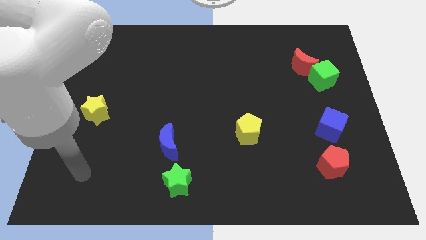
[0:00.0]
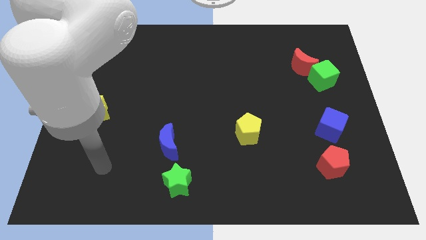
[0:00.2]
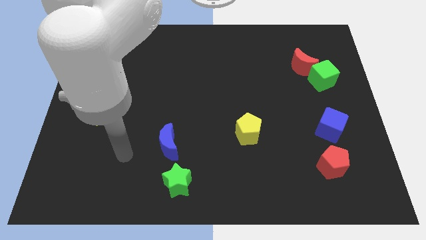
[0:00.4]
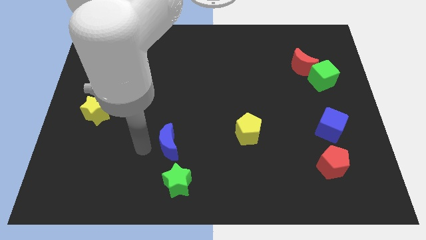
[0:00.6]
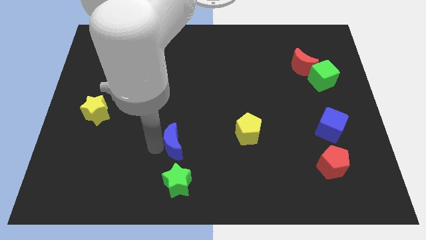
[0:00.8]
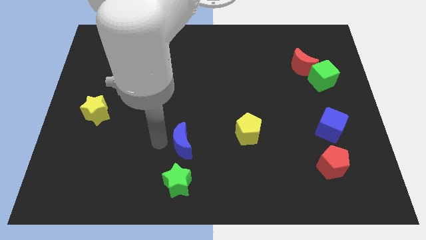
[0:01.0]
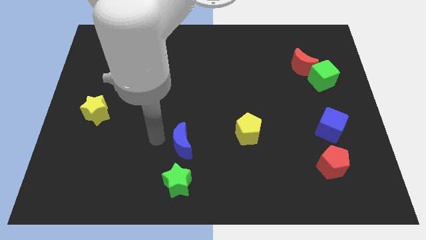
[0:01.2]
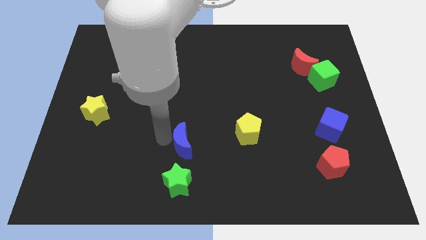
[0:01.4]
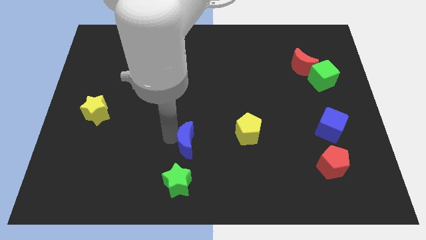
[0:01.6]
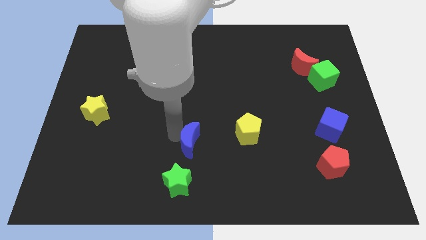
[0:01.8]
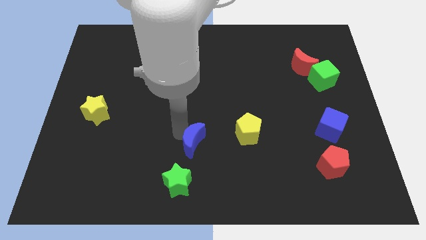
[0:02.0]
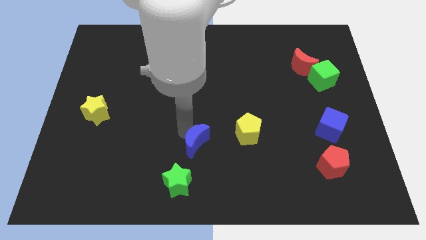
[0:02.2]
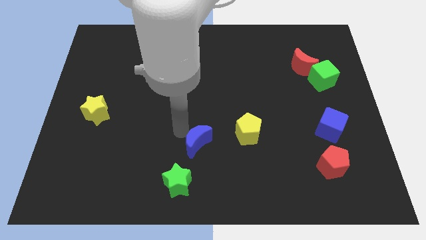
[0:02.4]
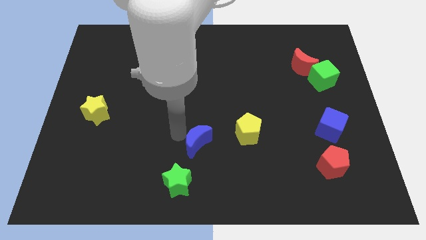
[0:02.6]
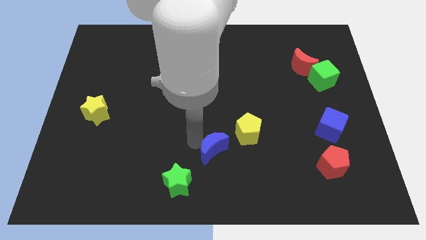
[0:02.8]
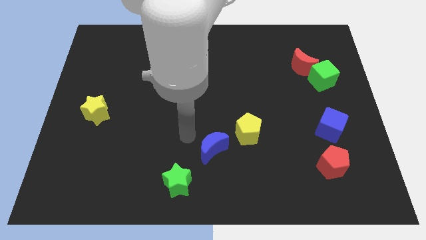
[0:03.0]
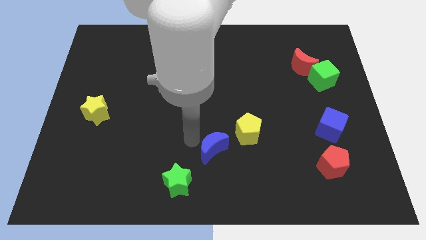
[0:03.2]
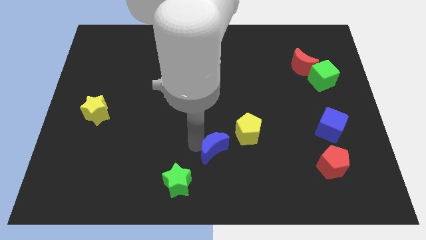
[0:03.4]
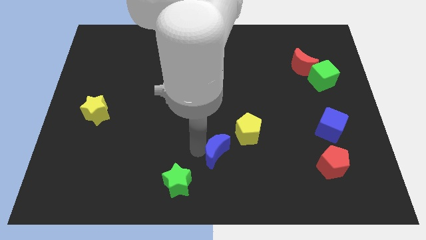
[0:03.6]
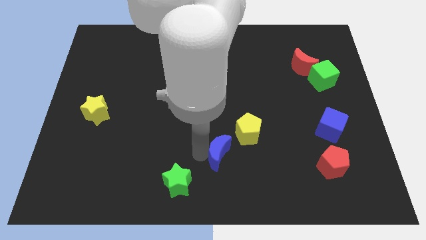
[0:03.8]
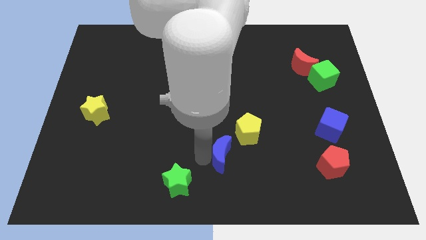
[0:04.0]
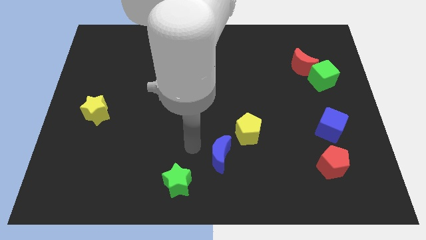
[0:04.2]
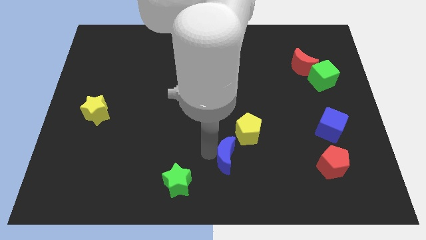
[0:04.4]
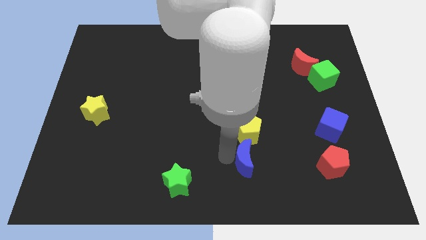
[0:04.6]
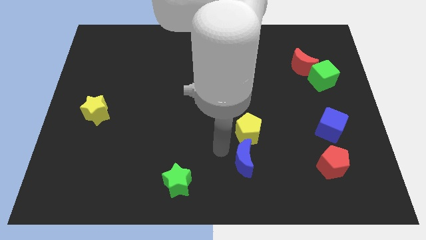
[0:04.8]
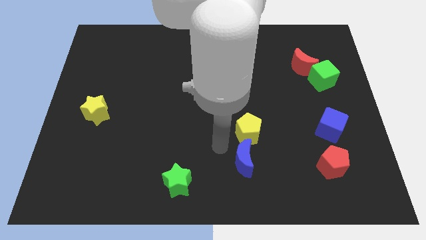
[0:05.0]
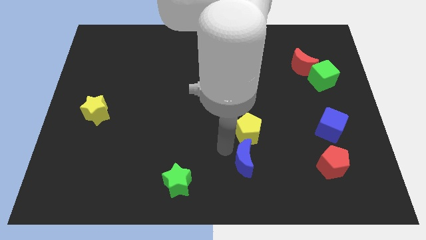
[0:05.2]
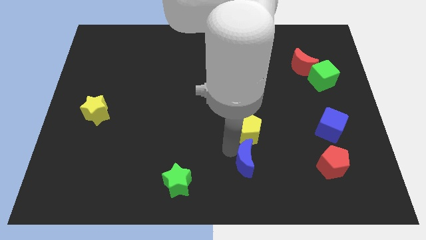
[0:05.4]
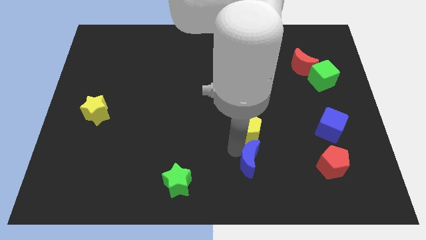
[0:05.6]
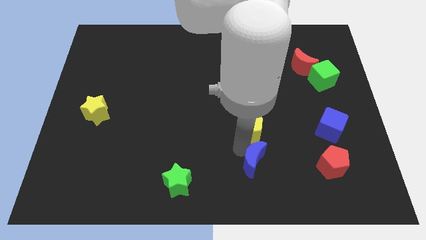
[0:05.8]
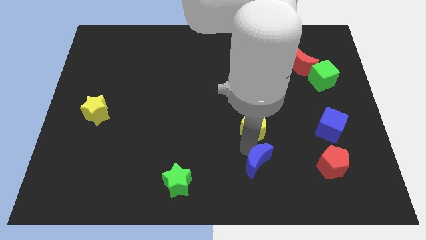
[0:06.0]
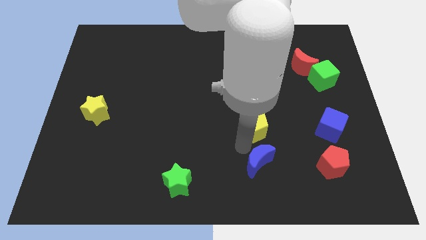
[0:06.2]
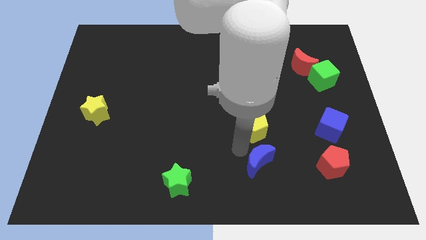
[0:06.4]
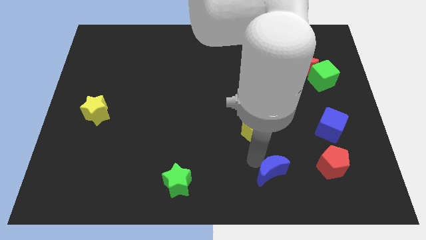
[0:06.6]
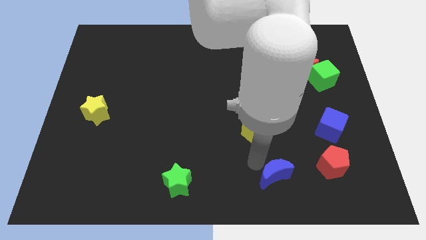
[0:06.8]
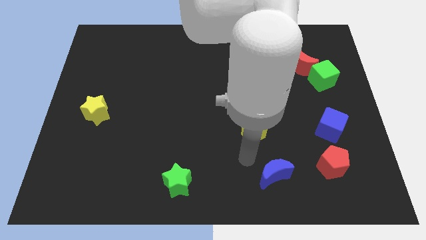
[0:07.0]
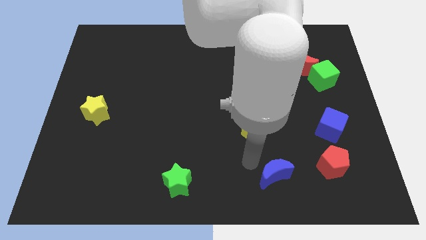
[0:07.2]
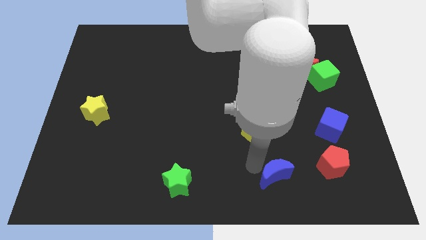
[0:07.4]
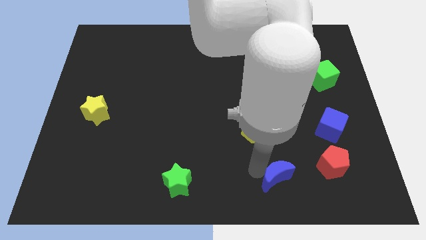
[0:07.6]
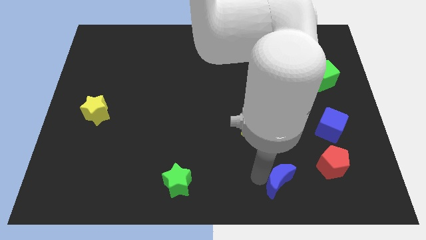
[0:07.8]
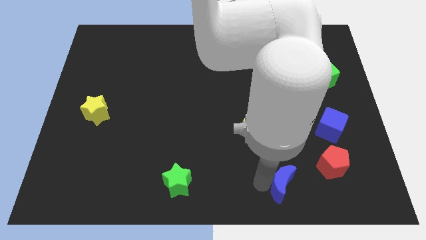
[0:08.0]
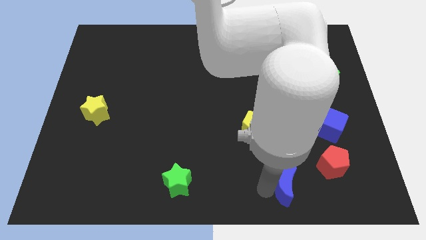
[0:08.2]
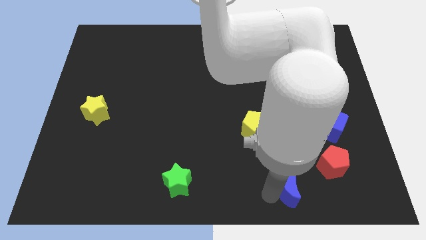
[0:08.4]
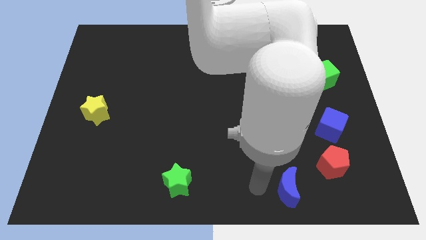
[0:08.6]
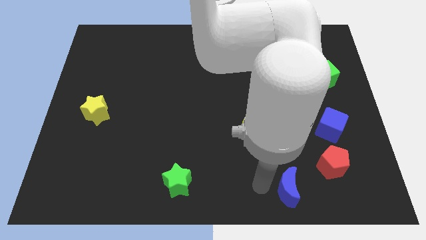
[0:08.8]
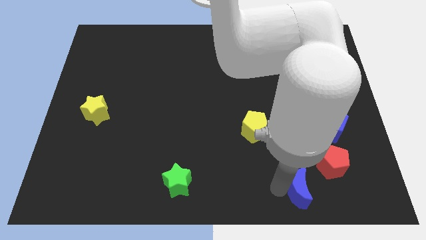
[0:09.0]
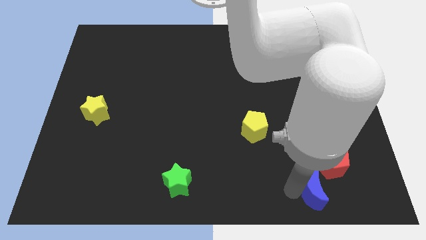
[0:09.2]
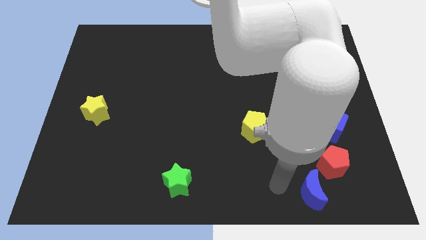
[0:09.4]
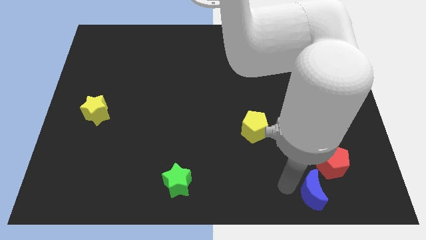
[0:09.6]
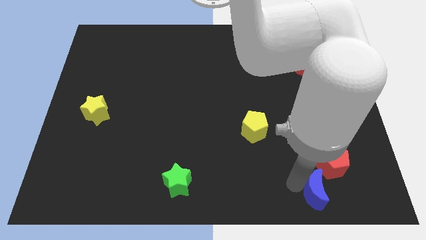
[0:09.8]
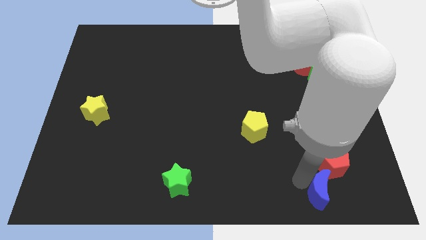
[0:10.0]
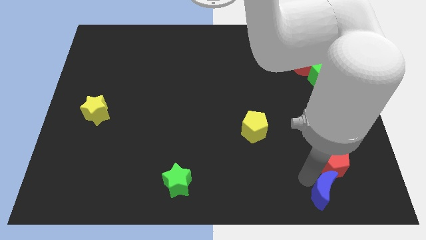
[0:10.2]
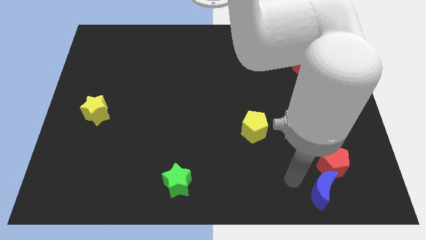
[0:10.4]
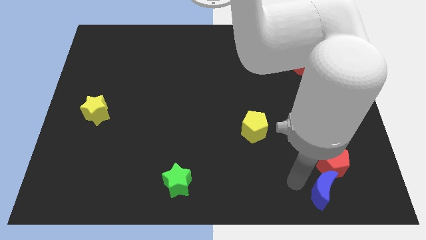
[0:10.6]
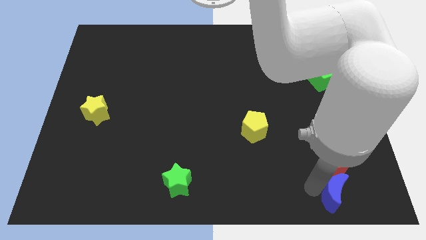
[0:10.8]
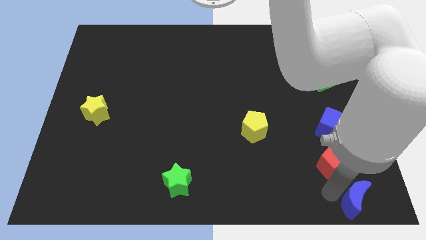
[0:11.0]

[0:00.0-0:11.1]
slide the blue moon to the bottom right of the board

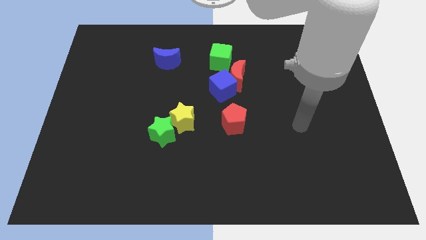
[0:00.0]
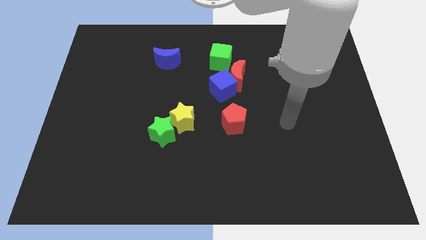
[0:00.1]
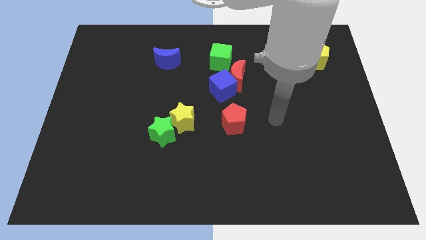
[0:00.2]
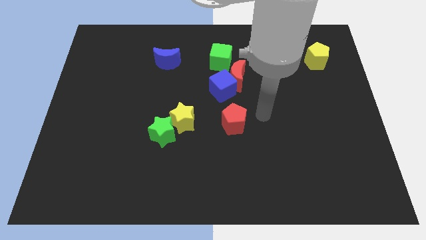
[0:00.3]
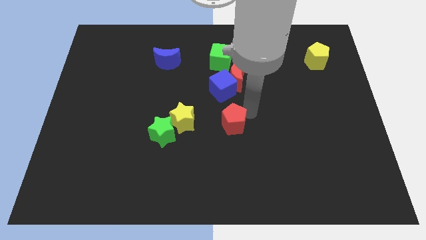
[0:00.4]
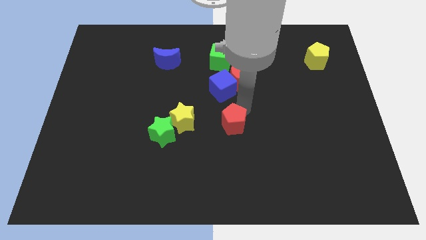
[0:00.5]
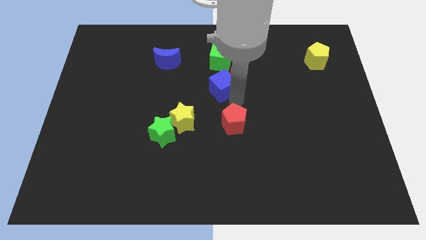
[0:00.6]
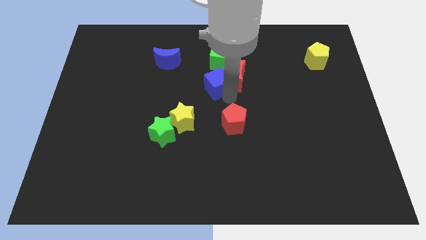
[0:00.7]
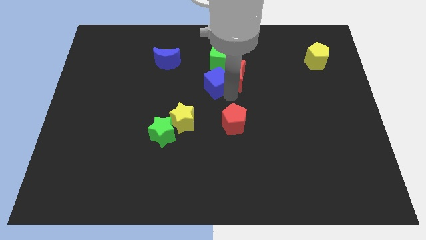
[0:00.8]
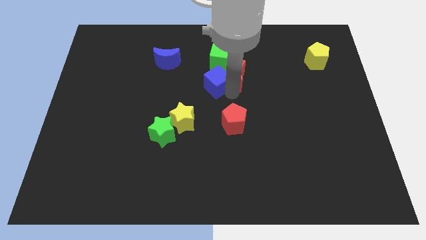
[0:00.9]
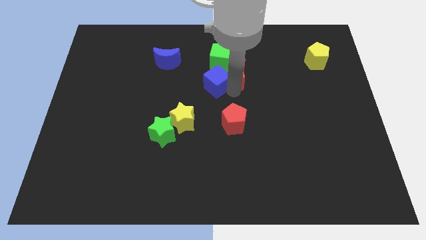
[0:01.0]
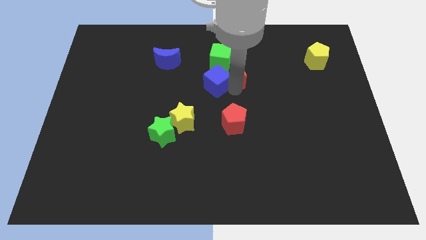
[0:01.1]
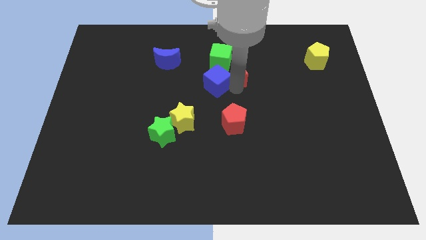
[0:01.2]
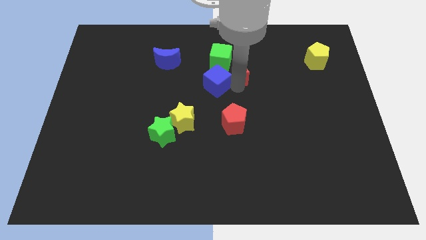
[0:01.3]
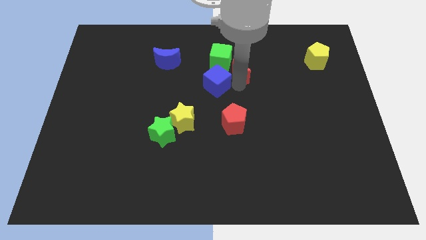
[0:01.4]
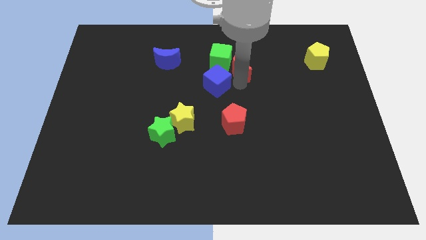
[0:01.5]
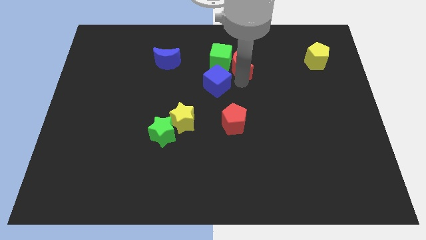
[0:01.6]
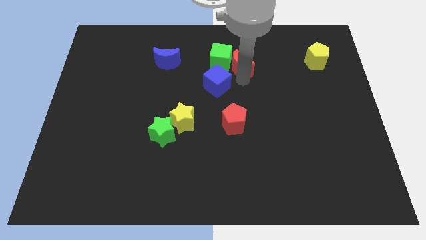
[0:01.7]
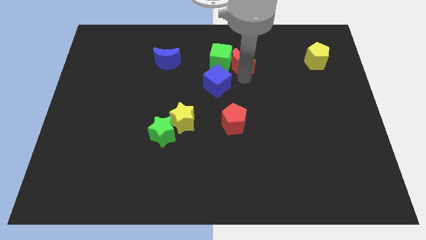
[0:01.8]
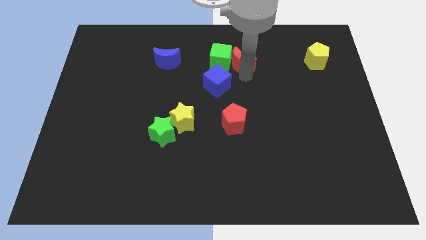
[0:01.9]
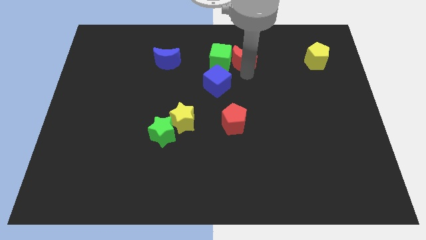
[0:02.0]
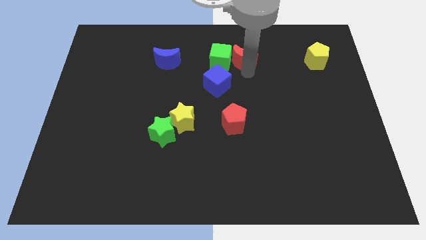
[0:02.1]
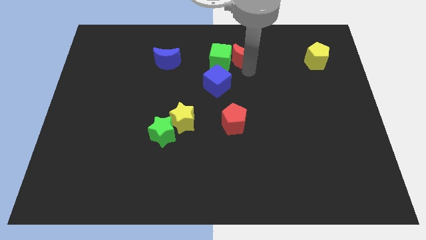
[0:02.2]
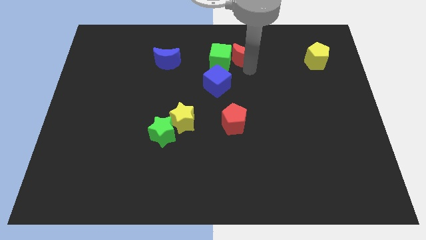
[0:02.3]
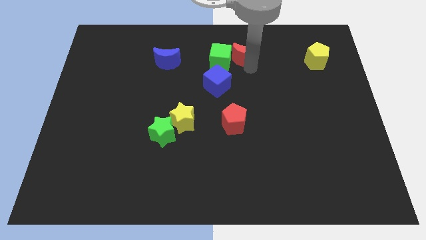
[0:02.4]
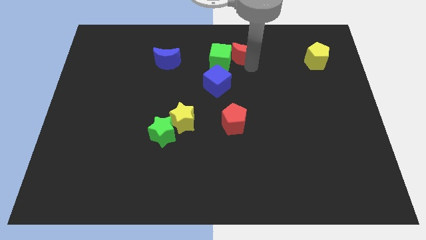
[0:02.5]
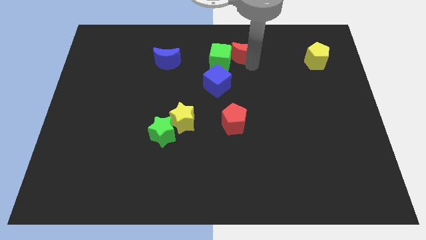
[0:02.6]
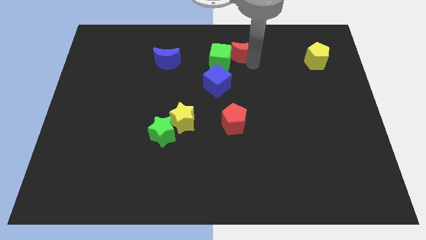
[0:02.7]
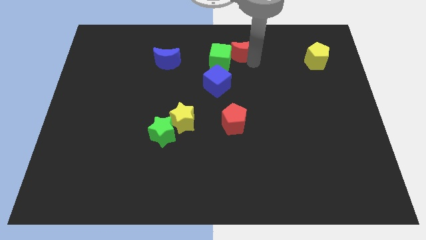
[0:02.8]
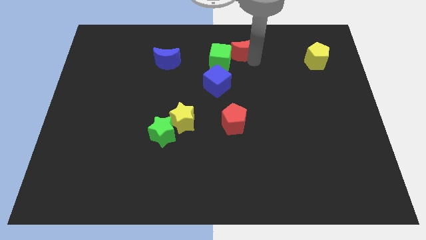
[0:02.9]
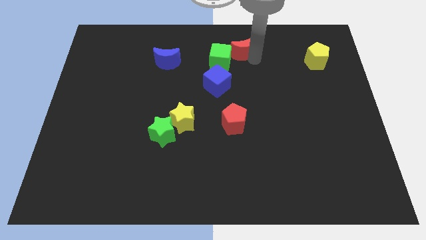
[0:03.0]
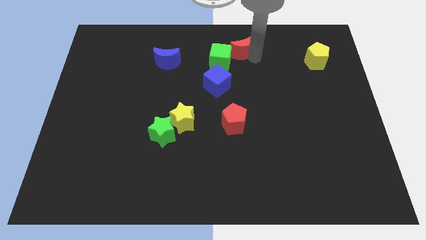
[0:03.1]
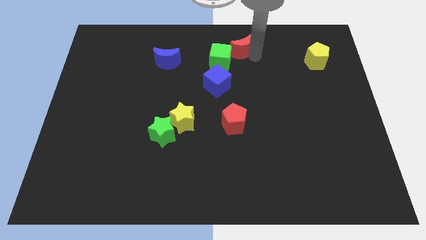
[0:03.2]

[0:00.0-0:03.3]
push the red moon to the towards your base
